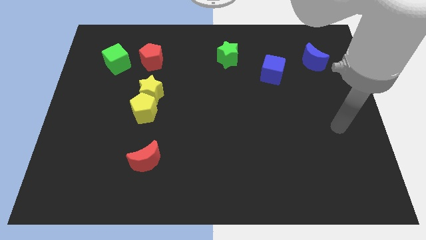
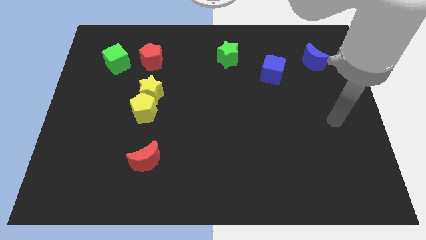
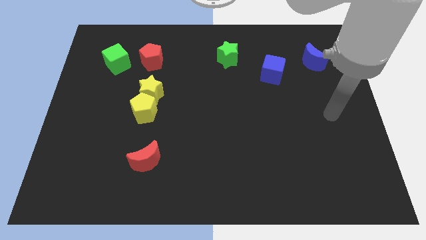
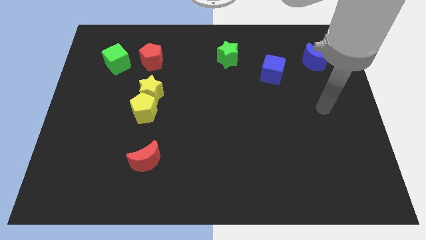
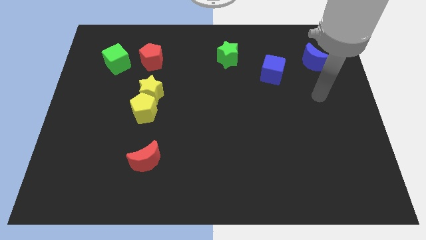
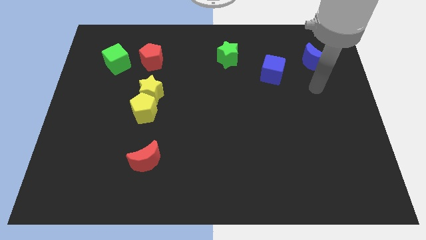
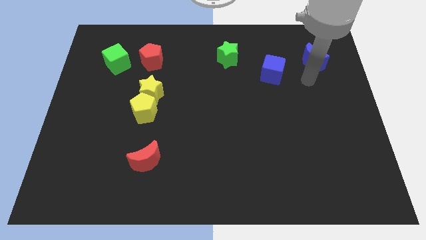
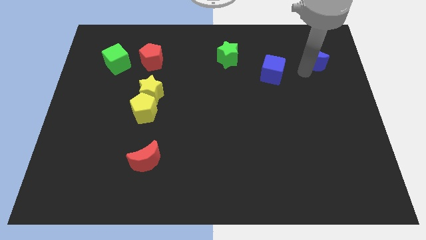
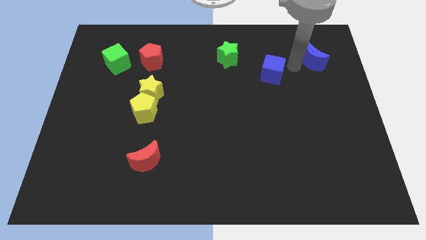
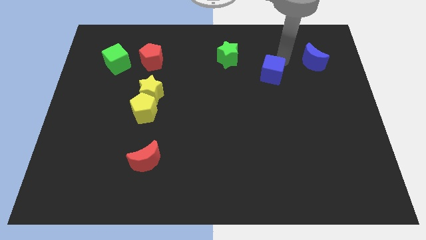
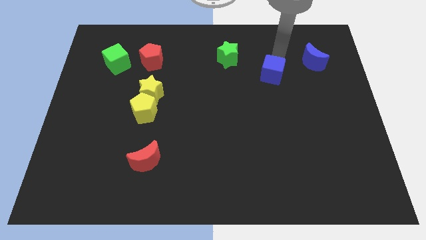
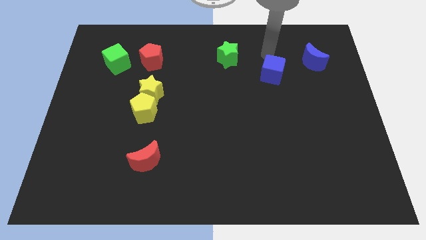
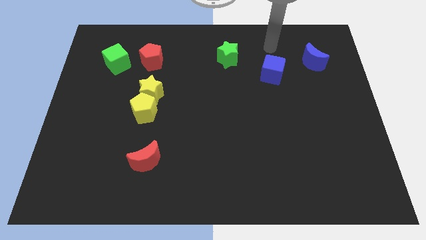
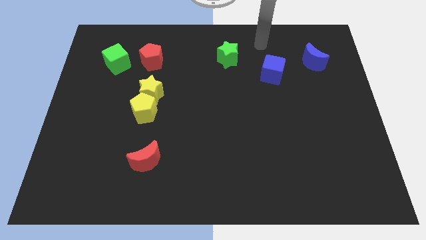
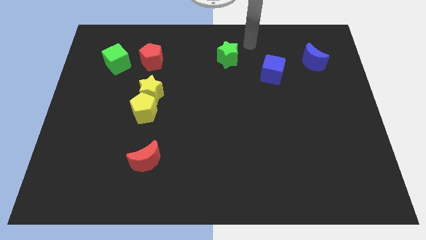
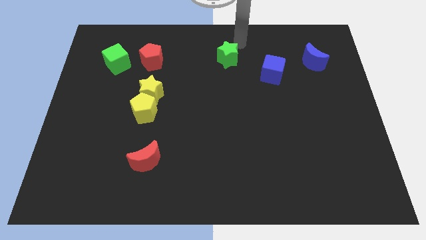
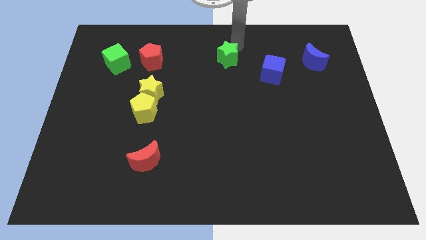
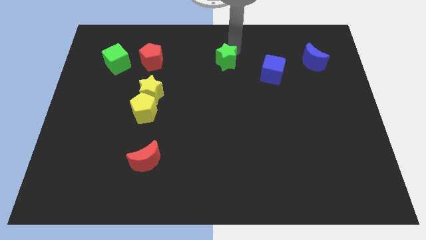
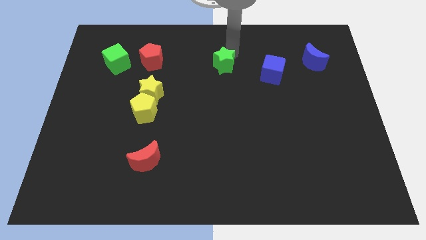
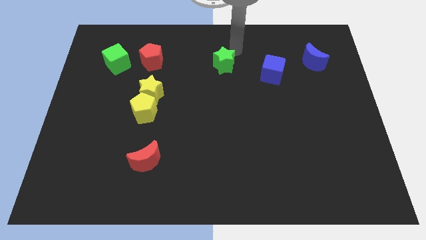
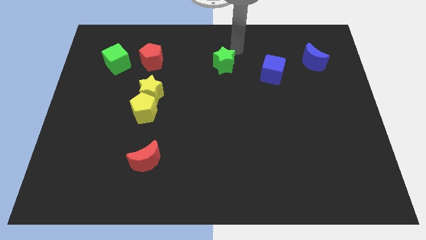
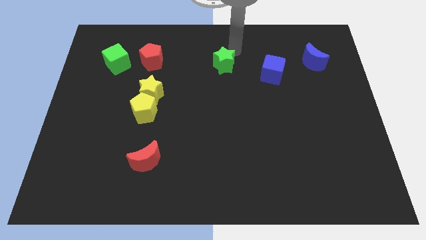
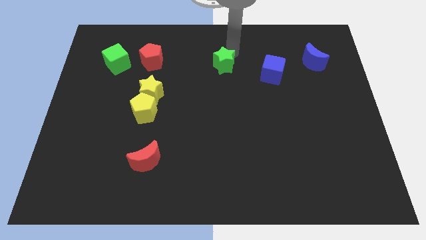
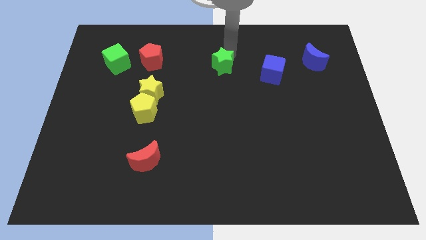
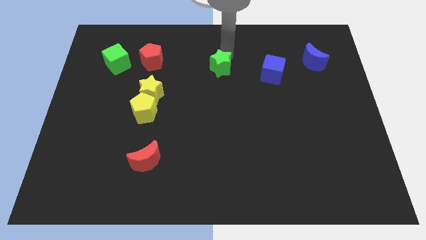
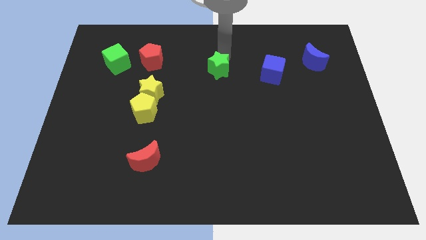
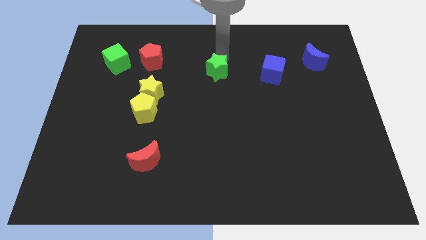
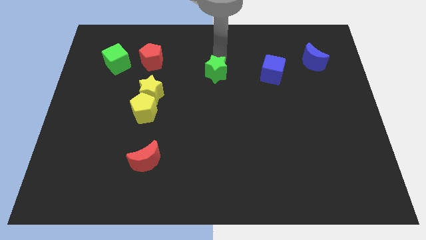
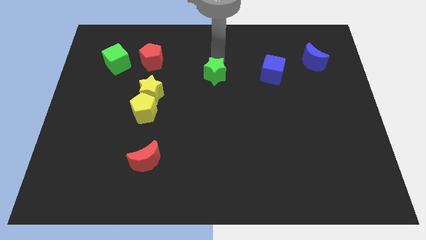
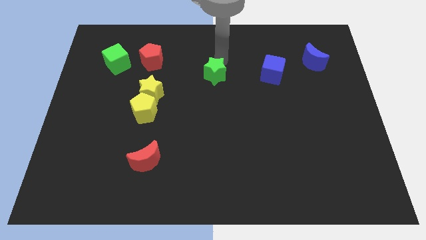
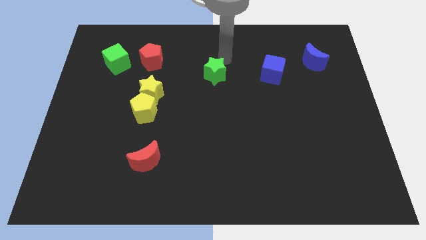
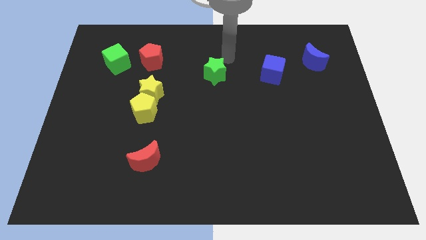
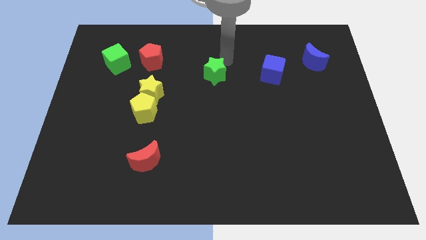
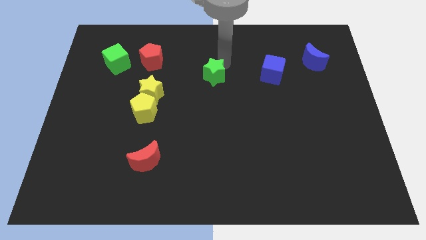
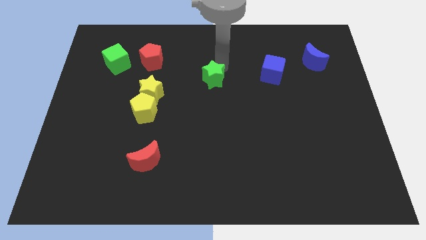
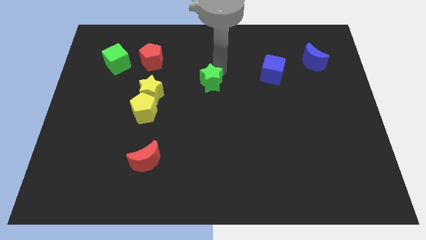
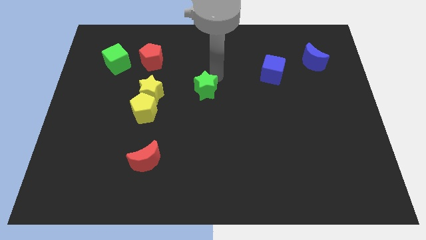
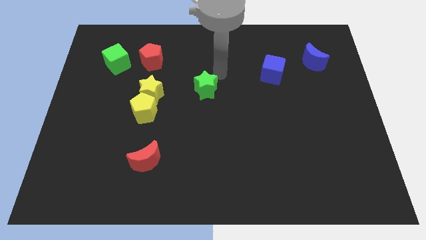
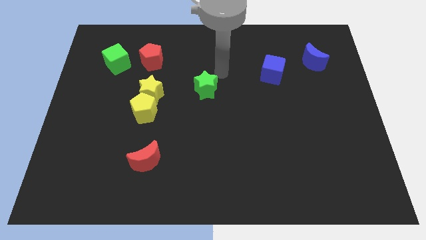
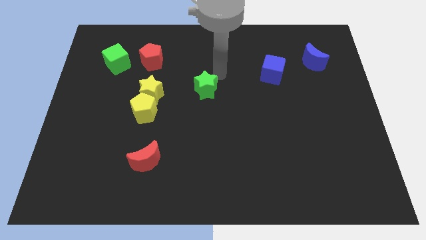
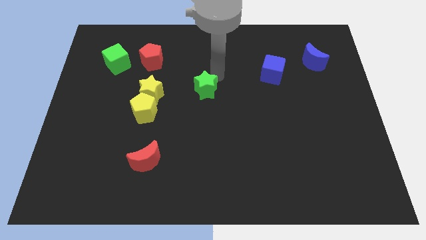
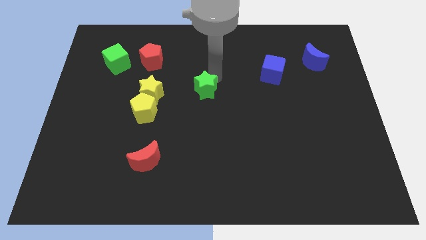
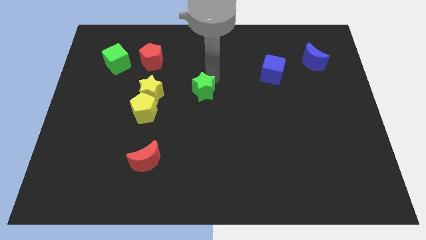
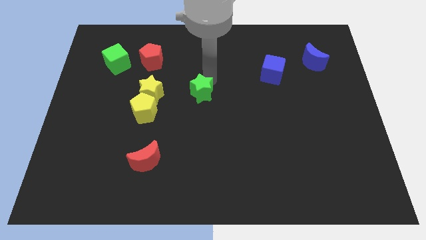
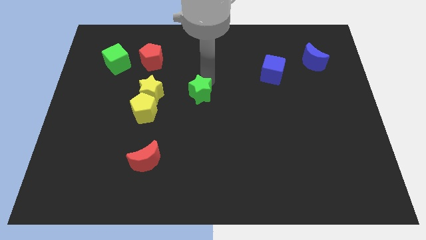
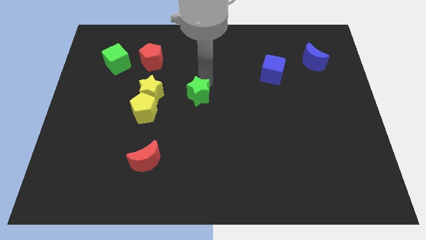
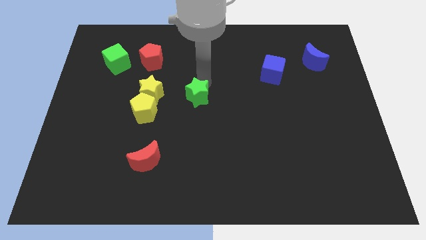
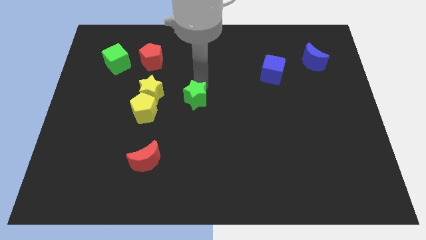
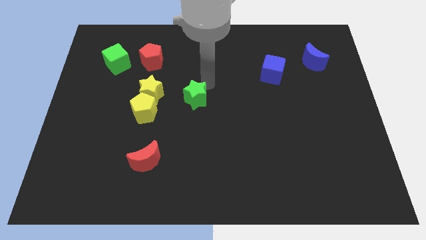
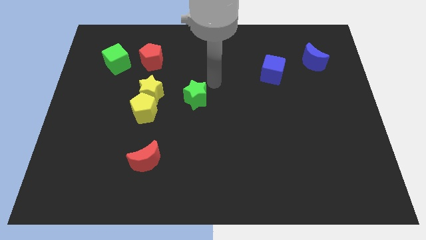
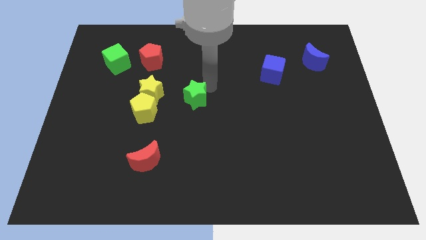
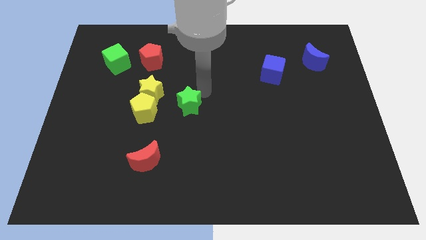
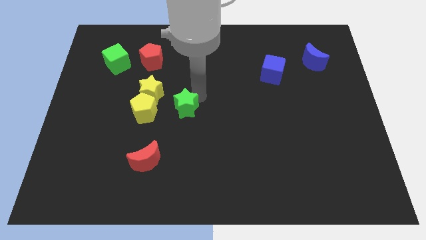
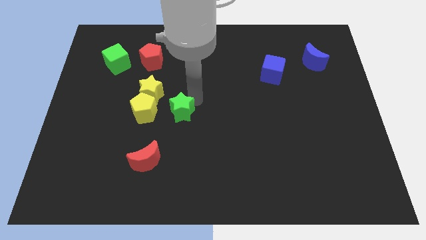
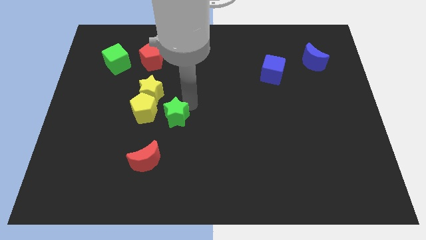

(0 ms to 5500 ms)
push the green star down and to the left diagonally

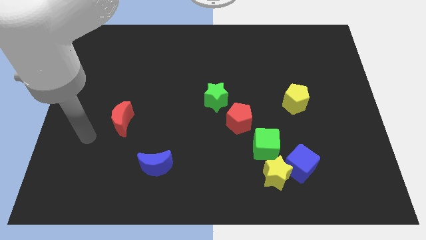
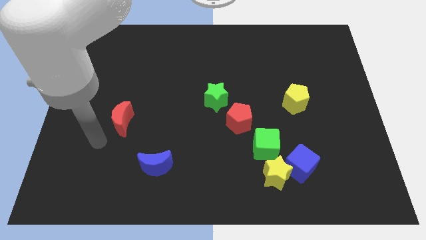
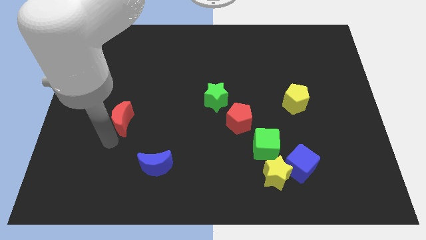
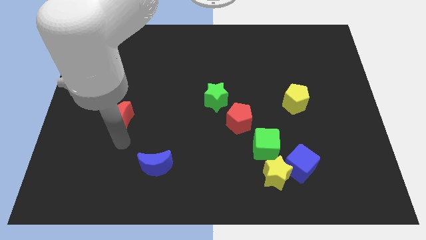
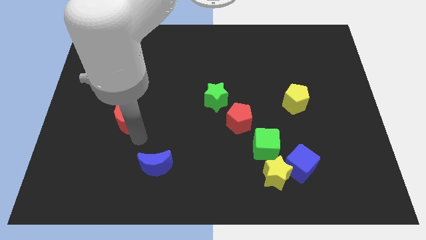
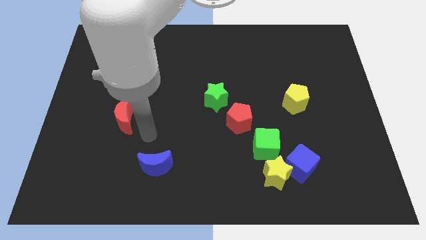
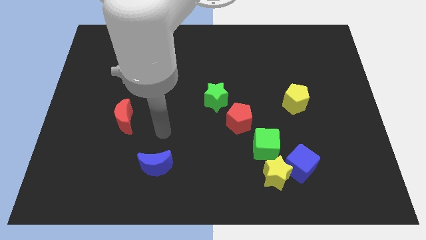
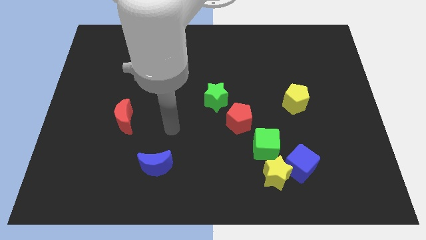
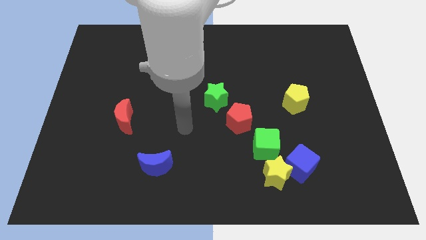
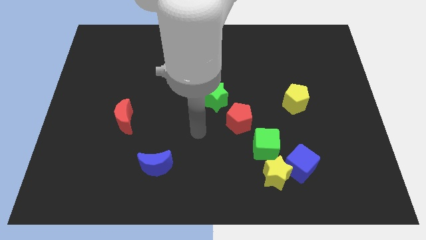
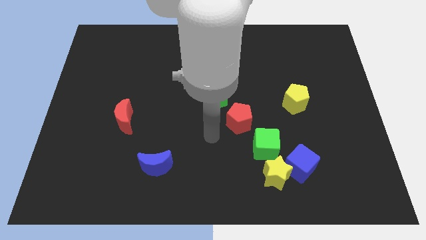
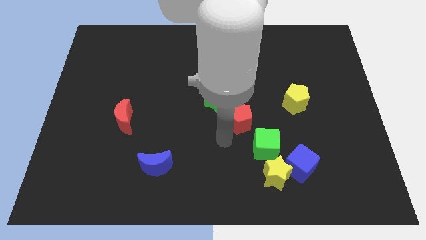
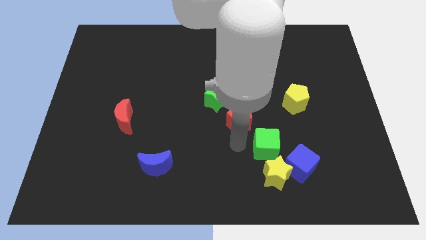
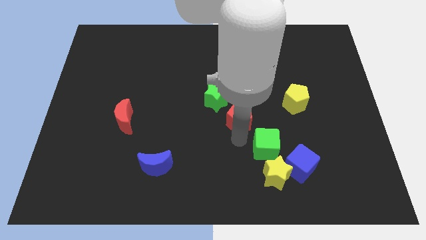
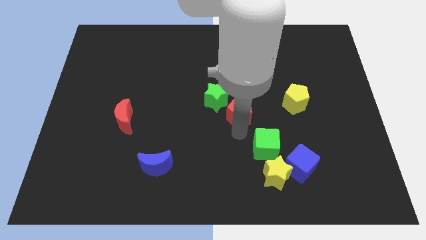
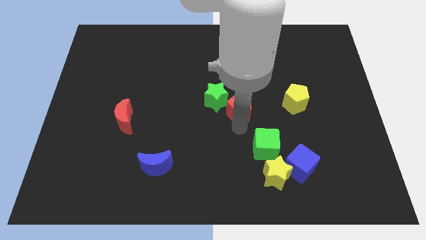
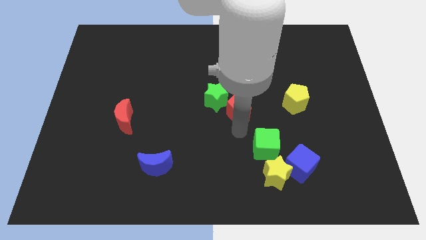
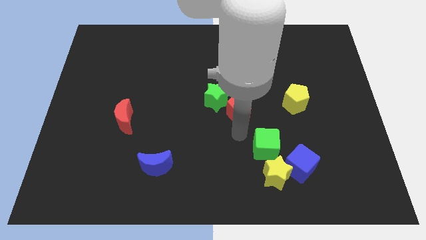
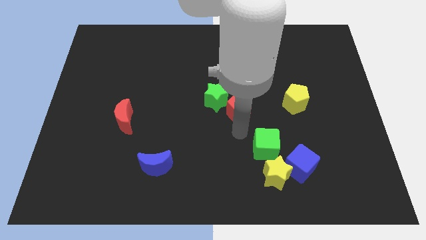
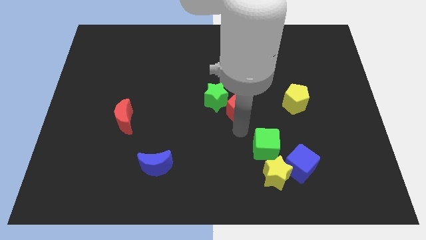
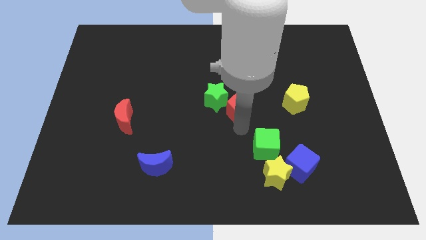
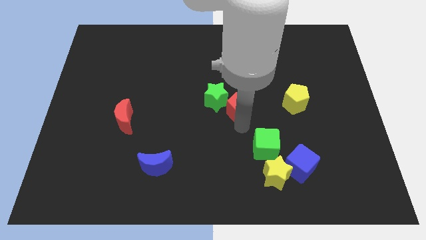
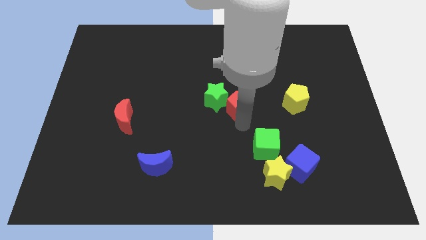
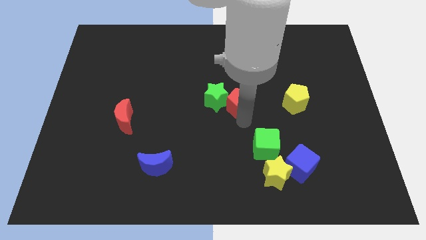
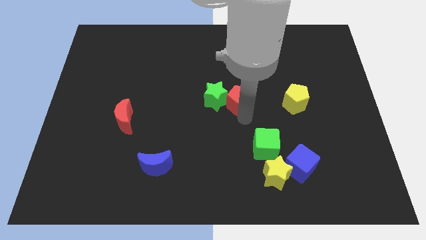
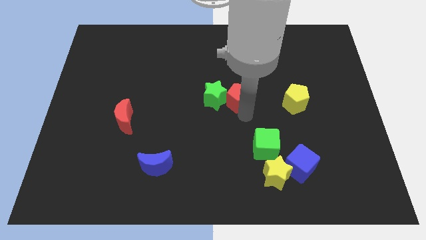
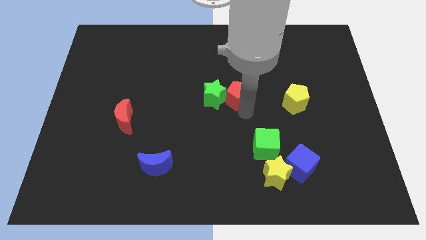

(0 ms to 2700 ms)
slightly slide the red pentagon upwards
